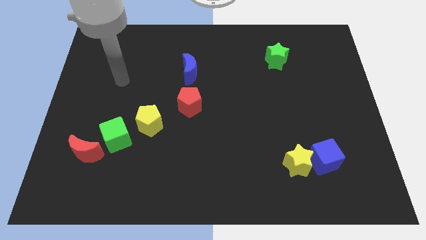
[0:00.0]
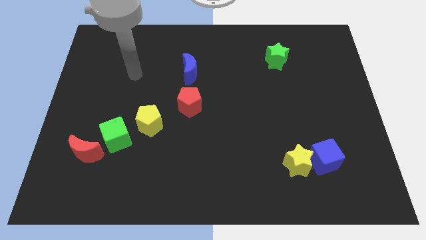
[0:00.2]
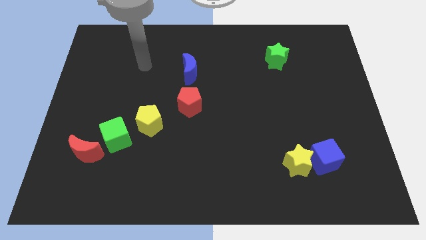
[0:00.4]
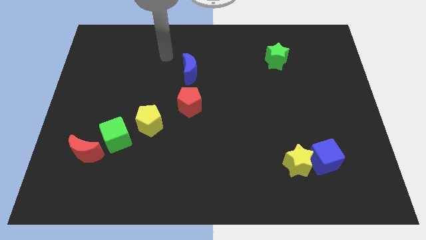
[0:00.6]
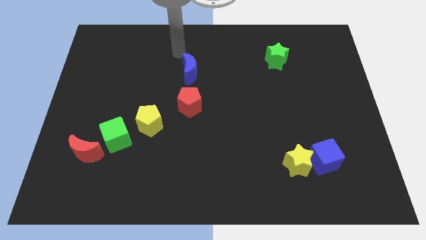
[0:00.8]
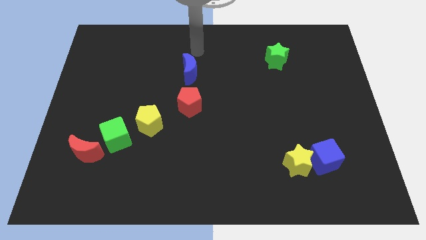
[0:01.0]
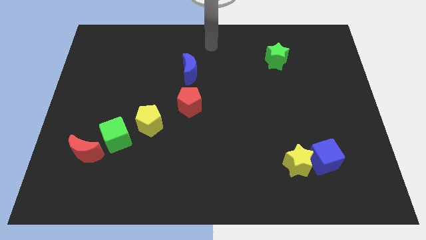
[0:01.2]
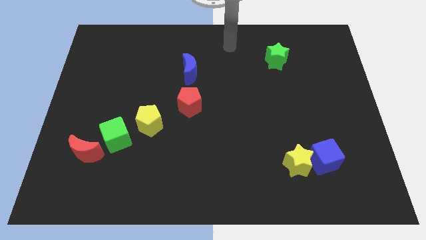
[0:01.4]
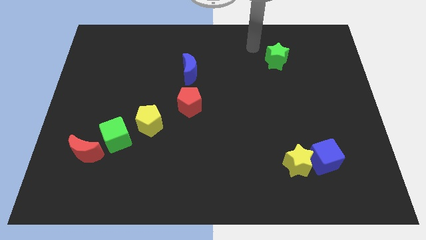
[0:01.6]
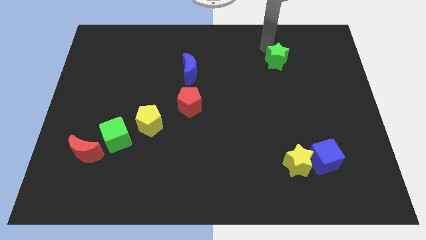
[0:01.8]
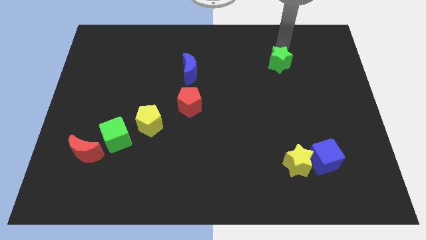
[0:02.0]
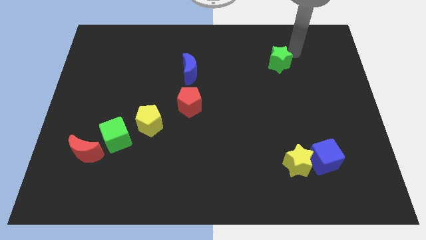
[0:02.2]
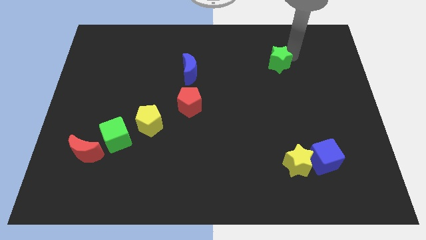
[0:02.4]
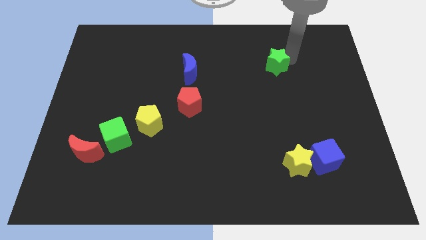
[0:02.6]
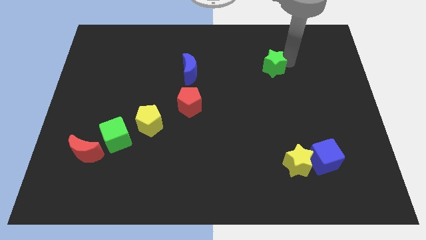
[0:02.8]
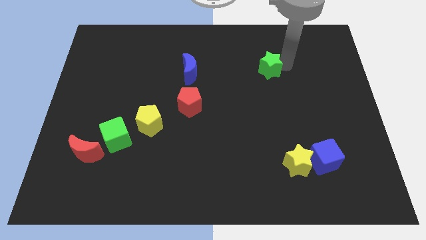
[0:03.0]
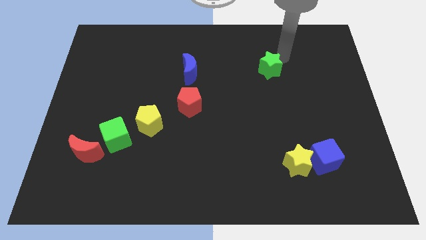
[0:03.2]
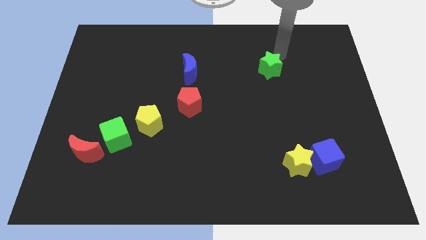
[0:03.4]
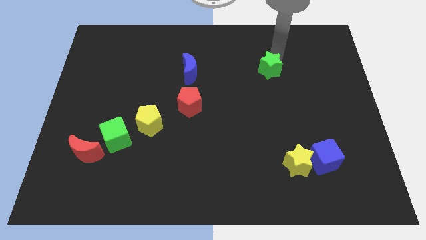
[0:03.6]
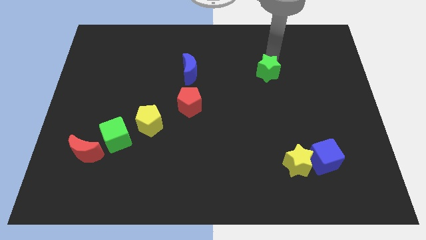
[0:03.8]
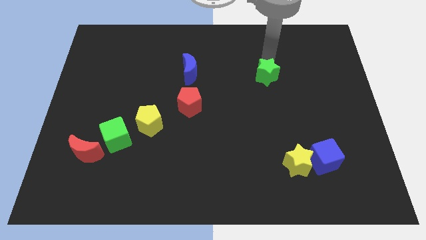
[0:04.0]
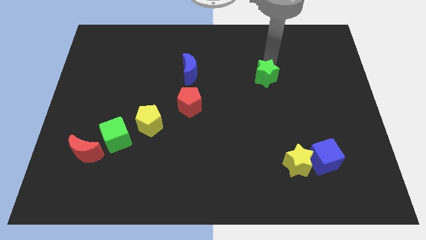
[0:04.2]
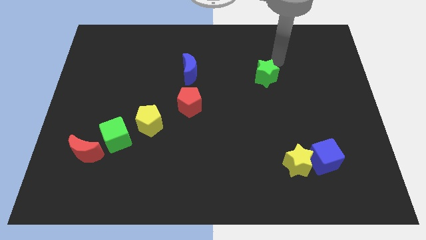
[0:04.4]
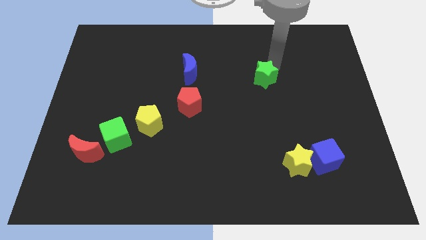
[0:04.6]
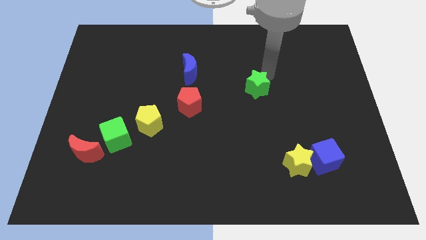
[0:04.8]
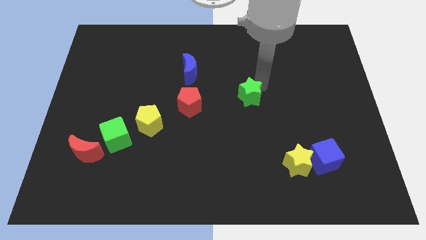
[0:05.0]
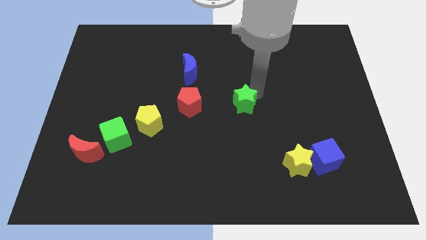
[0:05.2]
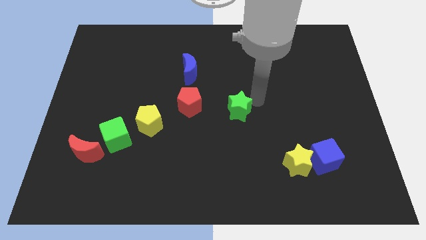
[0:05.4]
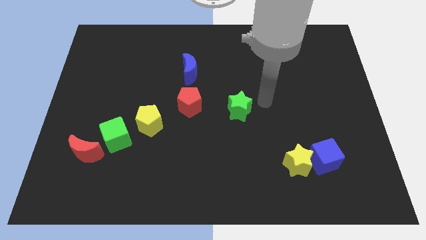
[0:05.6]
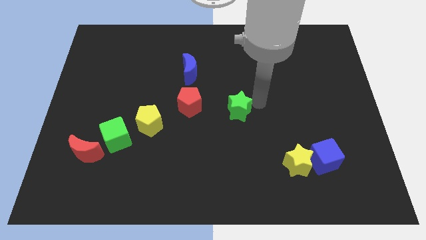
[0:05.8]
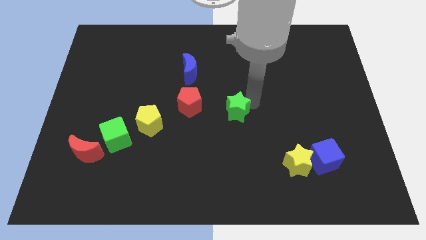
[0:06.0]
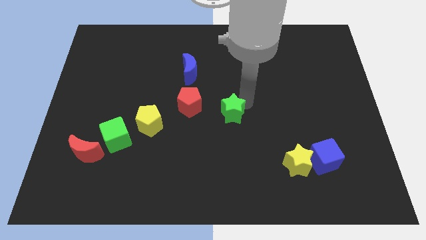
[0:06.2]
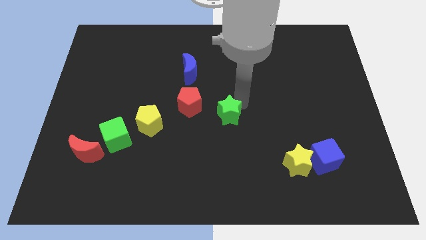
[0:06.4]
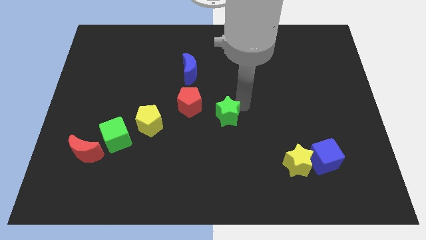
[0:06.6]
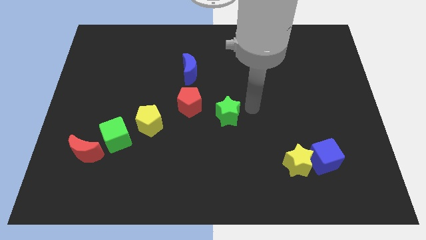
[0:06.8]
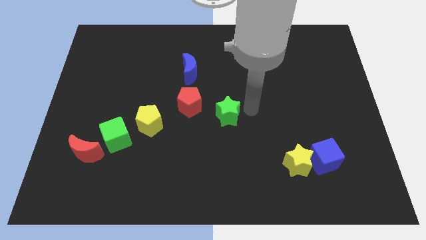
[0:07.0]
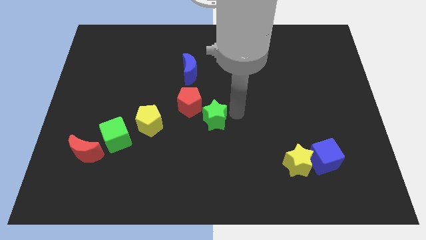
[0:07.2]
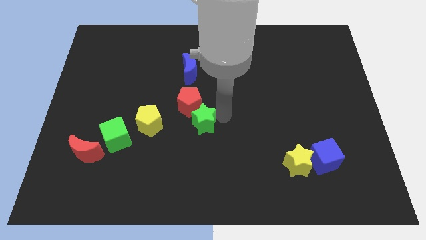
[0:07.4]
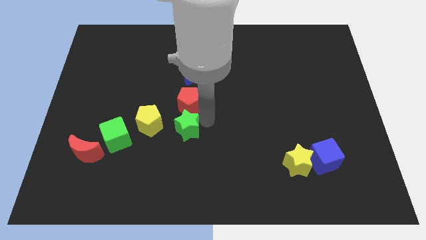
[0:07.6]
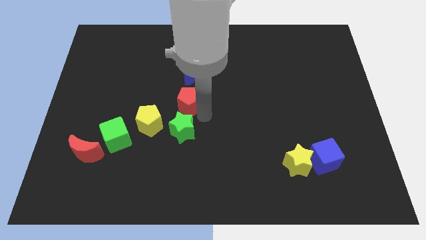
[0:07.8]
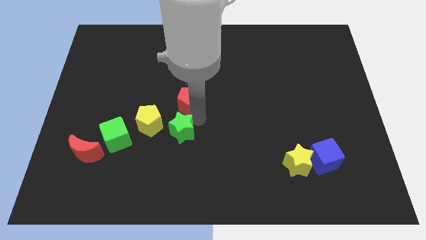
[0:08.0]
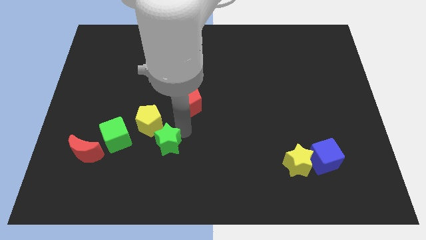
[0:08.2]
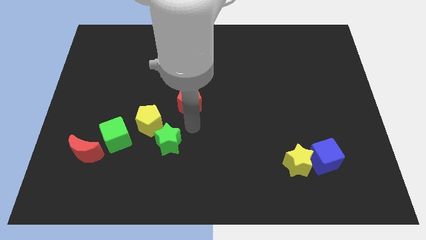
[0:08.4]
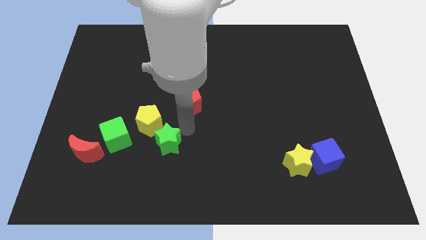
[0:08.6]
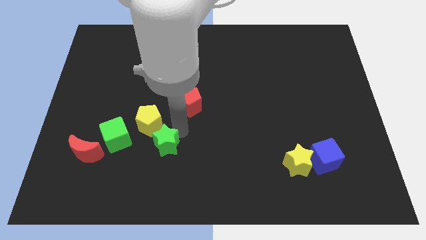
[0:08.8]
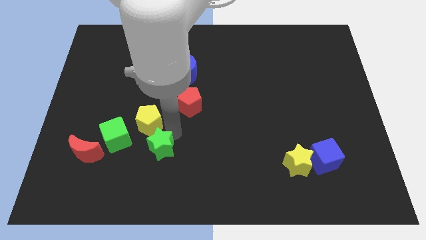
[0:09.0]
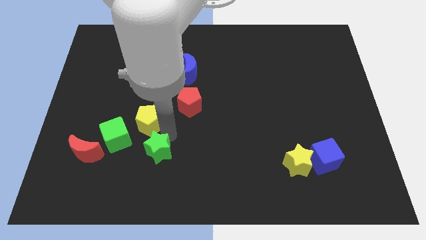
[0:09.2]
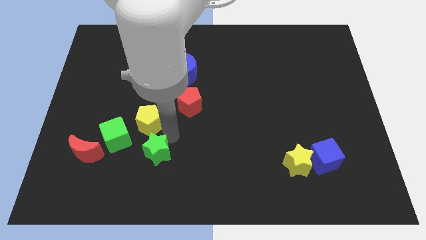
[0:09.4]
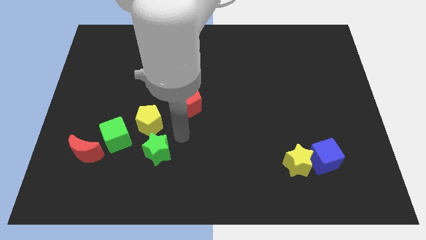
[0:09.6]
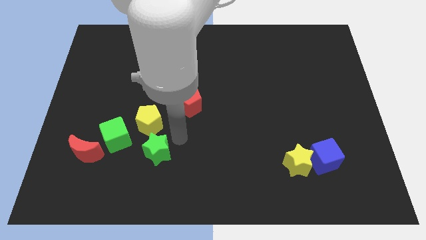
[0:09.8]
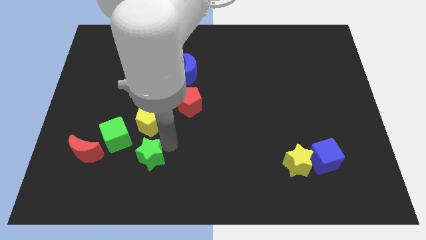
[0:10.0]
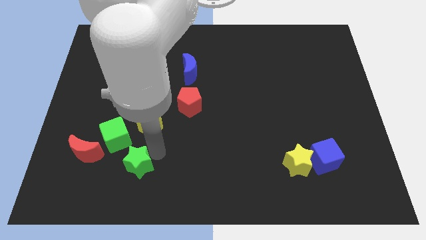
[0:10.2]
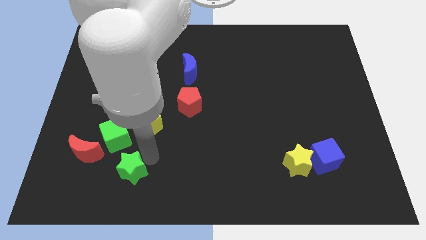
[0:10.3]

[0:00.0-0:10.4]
move the green star below the green cube

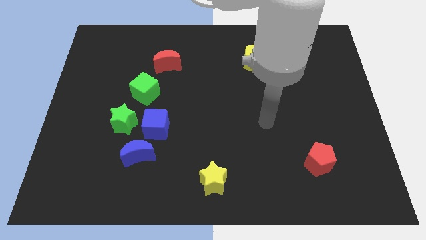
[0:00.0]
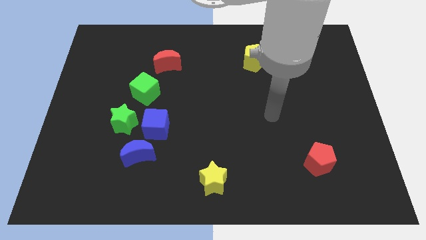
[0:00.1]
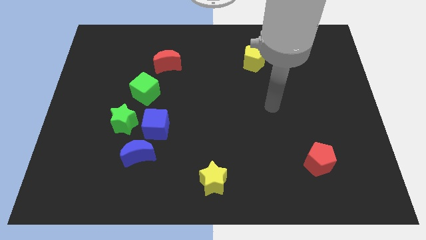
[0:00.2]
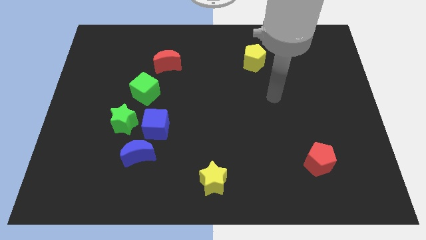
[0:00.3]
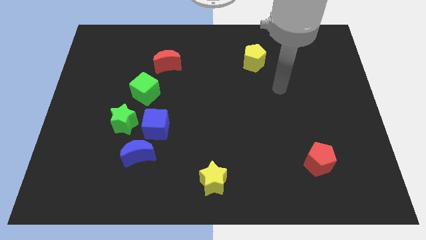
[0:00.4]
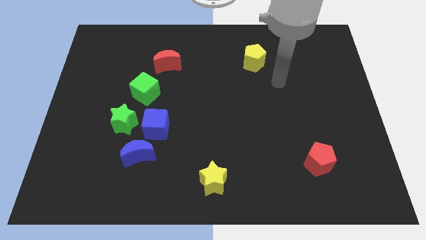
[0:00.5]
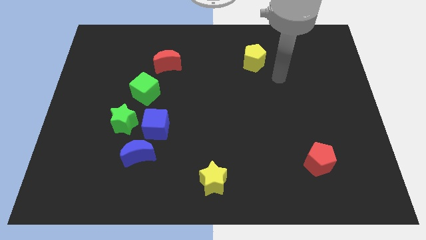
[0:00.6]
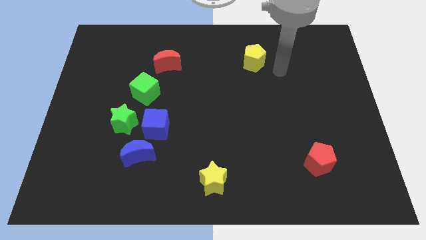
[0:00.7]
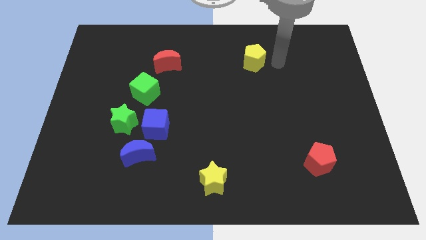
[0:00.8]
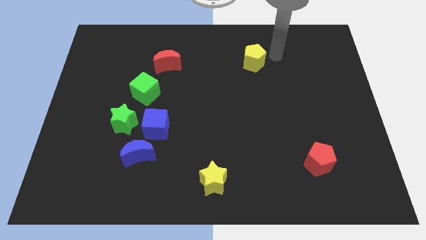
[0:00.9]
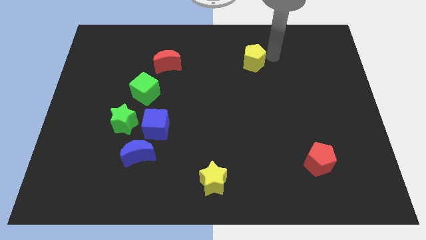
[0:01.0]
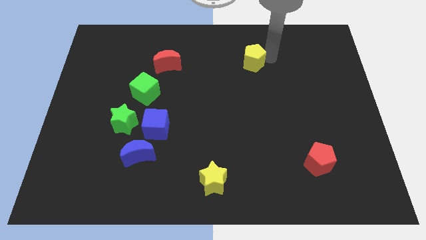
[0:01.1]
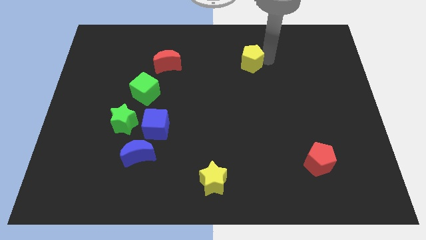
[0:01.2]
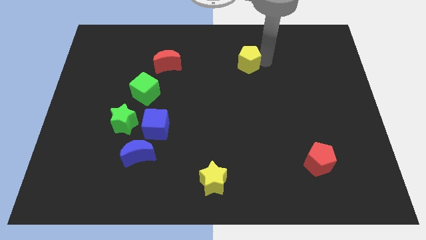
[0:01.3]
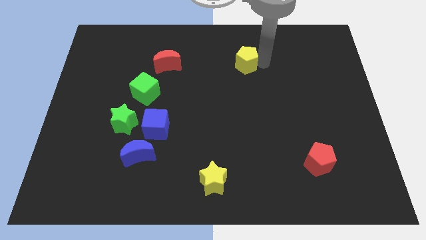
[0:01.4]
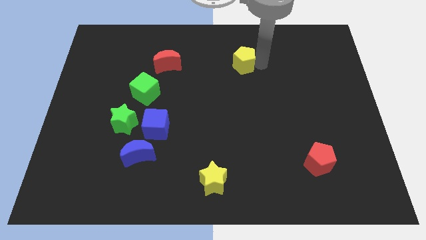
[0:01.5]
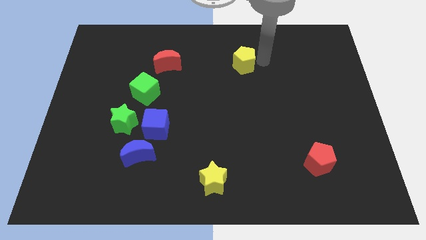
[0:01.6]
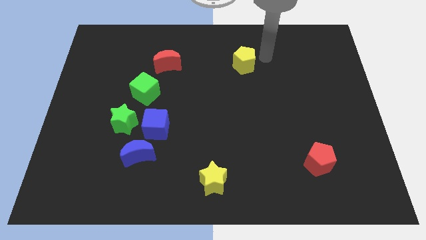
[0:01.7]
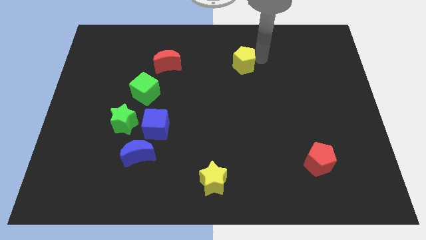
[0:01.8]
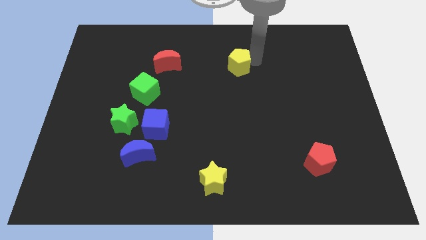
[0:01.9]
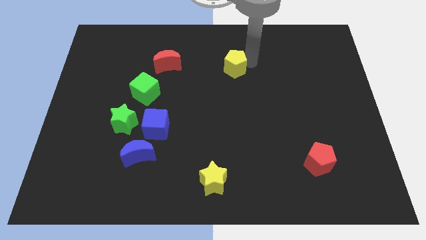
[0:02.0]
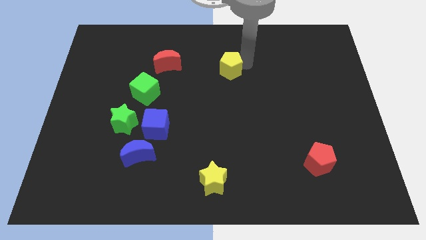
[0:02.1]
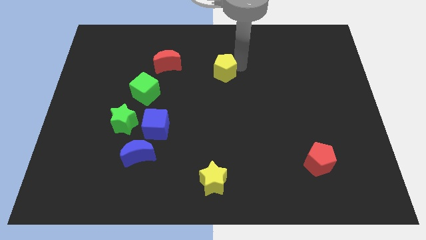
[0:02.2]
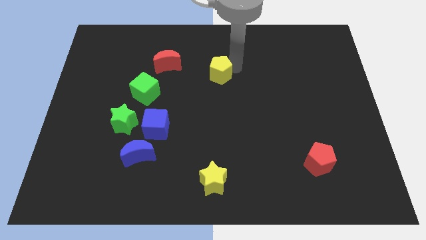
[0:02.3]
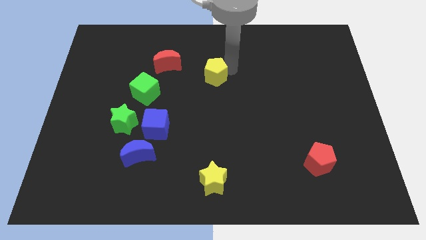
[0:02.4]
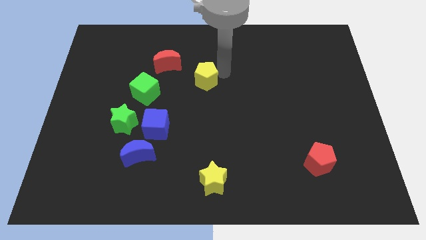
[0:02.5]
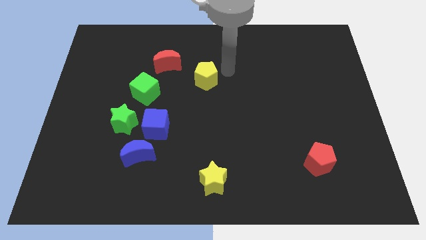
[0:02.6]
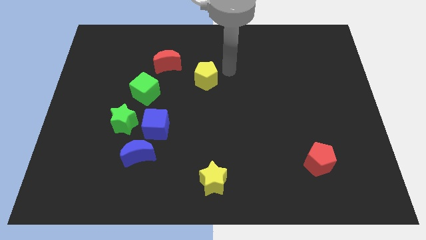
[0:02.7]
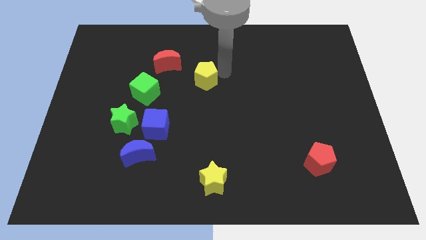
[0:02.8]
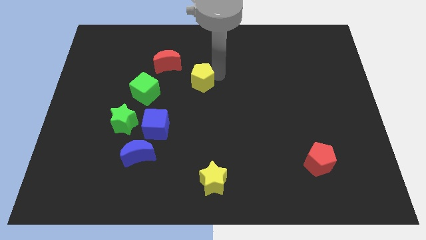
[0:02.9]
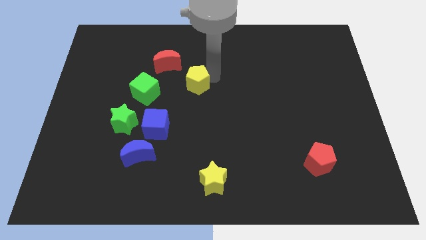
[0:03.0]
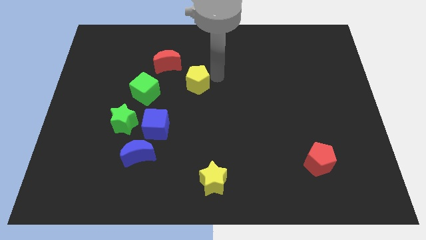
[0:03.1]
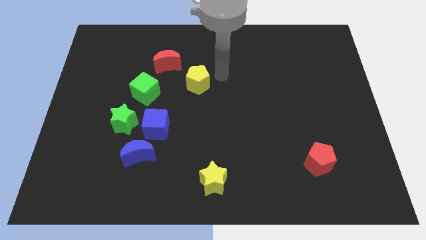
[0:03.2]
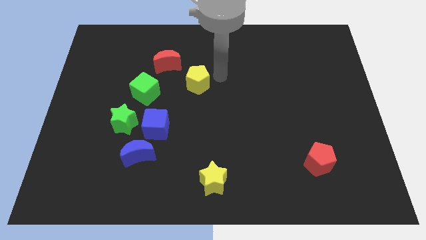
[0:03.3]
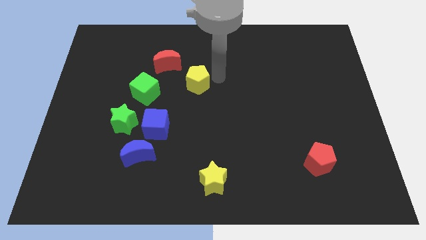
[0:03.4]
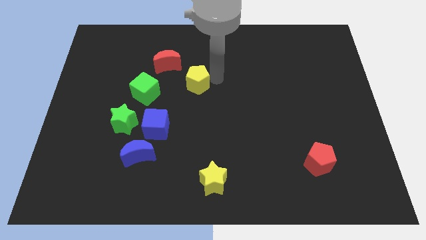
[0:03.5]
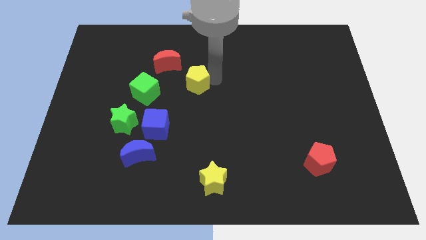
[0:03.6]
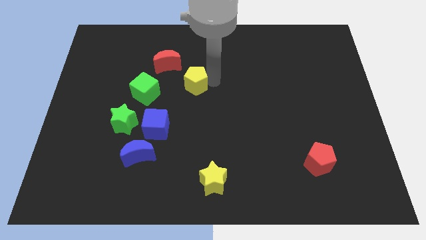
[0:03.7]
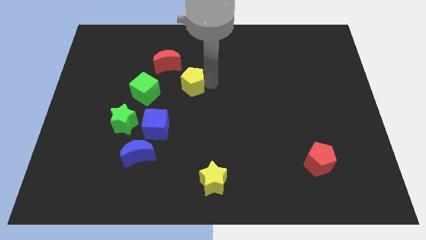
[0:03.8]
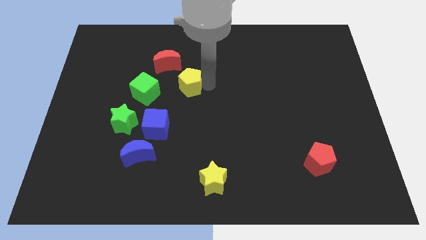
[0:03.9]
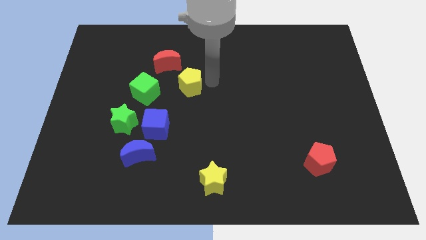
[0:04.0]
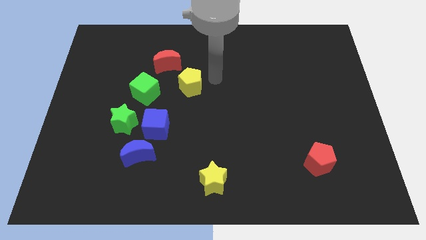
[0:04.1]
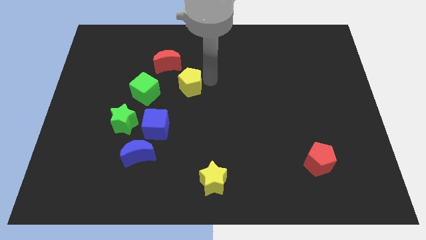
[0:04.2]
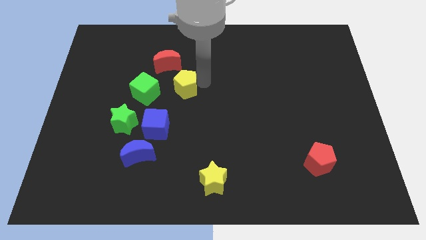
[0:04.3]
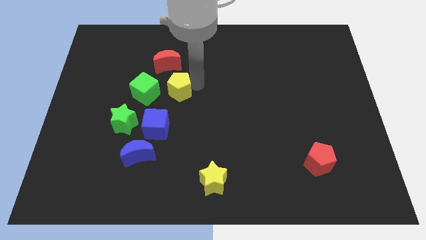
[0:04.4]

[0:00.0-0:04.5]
slide the yellow pentagon to the bottom of the red moon
